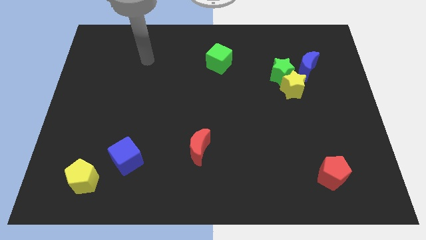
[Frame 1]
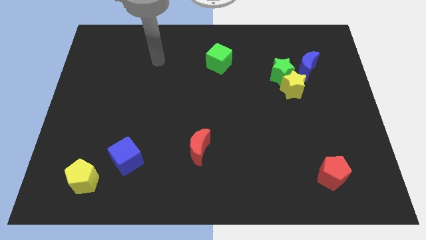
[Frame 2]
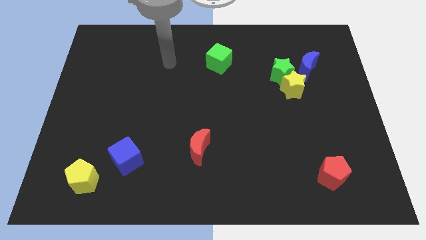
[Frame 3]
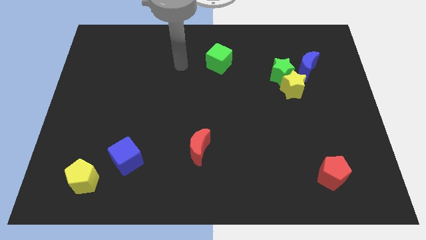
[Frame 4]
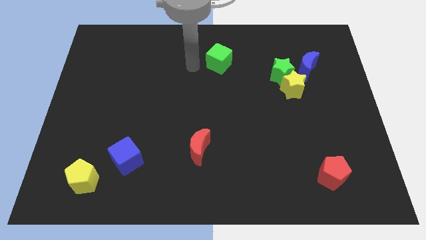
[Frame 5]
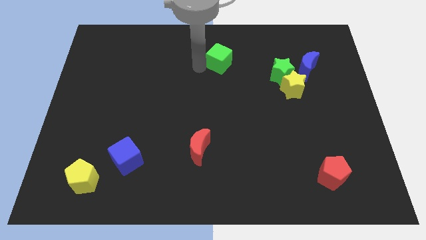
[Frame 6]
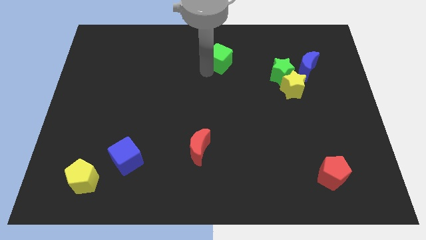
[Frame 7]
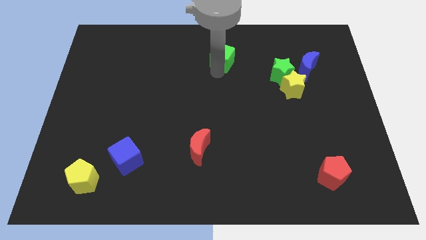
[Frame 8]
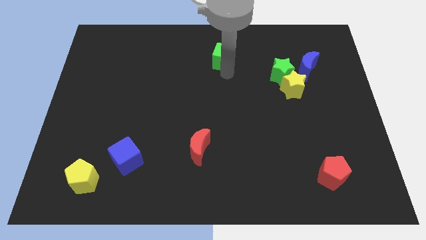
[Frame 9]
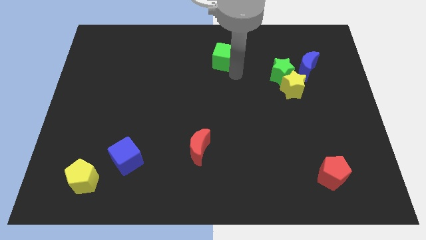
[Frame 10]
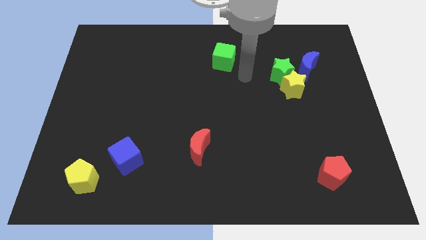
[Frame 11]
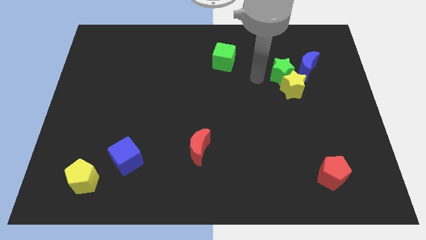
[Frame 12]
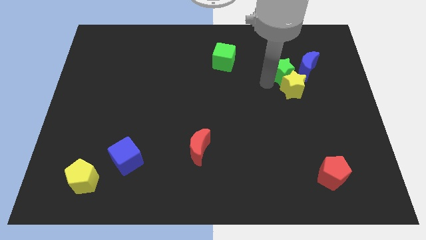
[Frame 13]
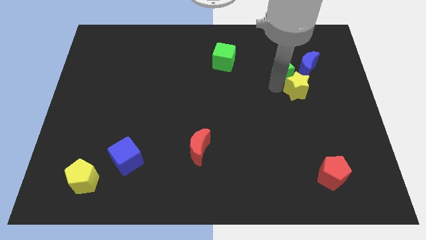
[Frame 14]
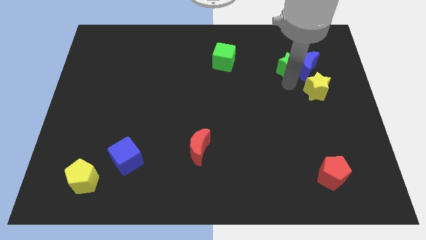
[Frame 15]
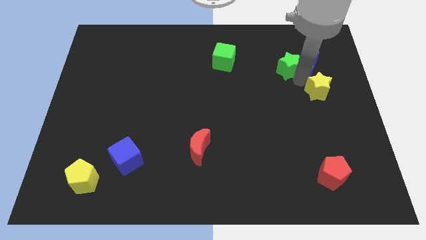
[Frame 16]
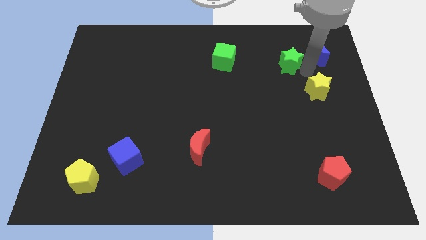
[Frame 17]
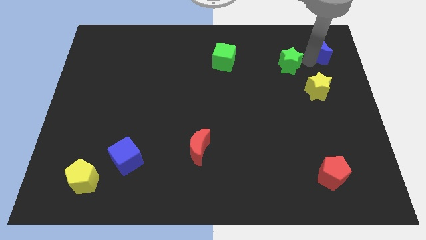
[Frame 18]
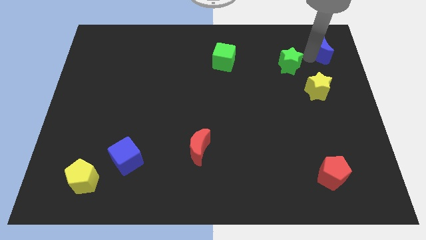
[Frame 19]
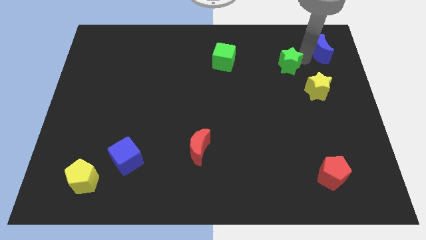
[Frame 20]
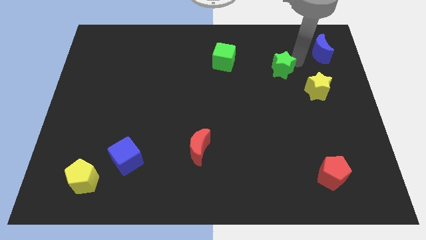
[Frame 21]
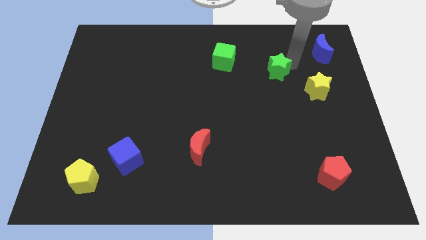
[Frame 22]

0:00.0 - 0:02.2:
move the green star away from the yellow star and blue moon

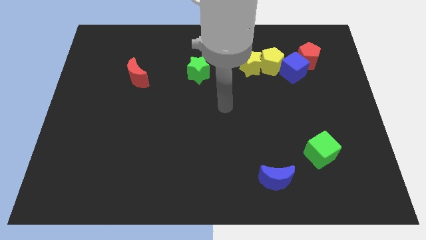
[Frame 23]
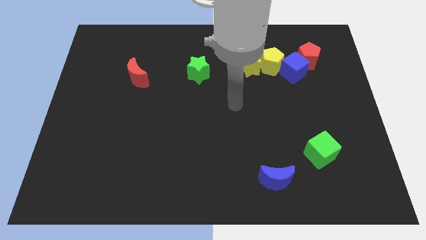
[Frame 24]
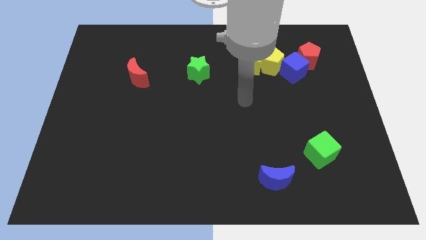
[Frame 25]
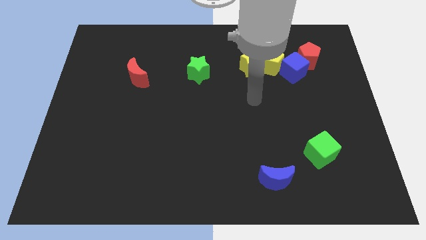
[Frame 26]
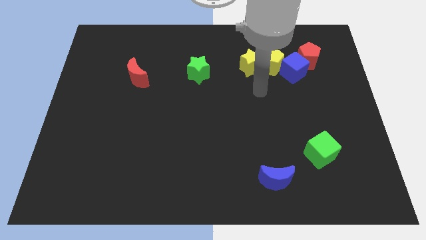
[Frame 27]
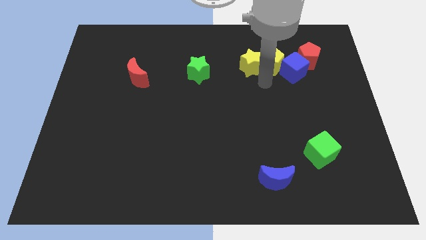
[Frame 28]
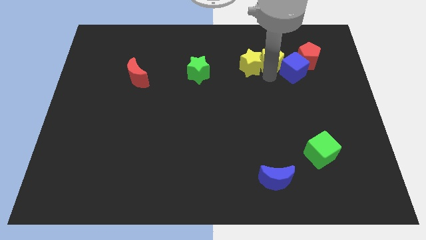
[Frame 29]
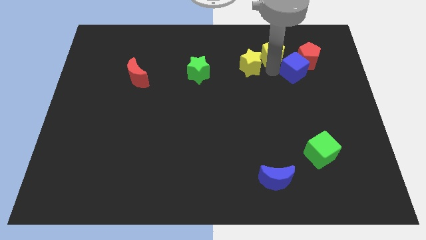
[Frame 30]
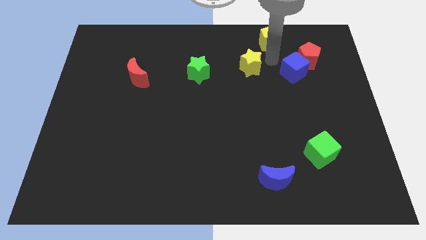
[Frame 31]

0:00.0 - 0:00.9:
separate the yellow star from the yellow pentagon

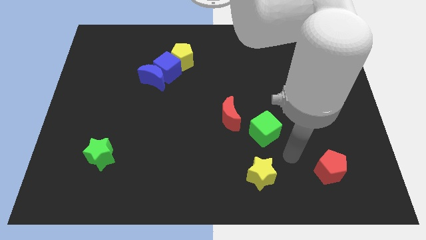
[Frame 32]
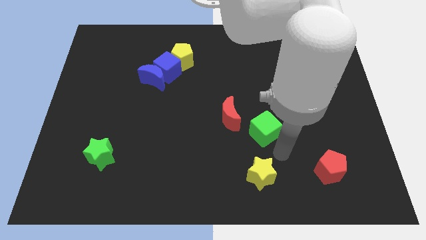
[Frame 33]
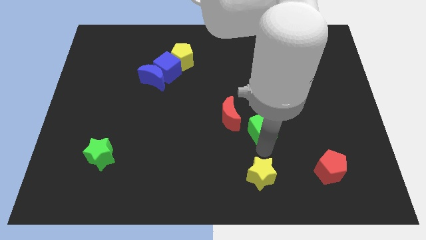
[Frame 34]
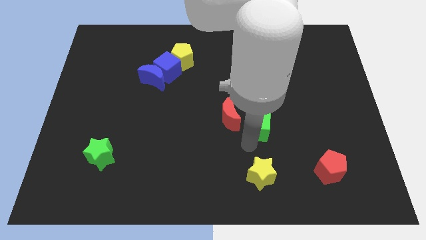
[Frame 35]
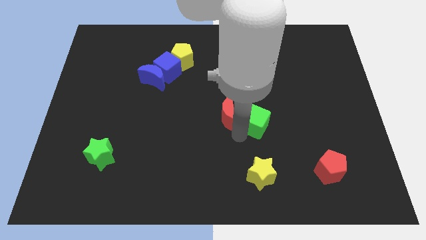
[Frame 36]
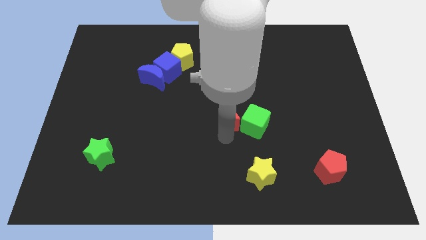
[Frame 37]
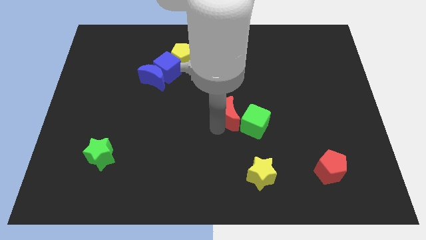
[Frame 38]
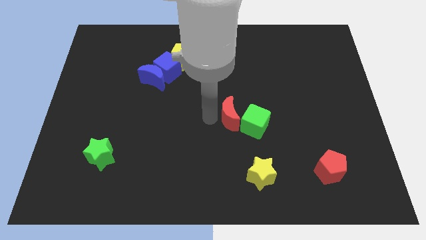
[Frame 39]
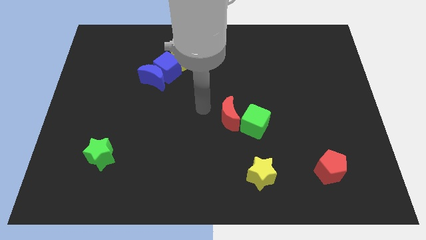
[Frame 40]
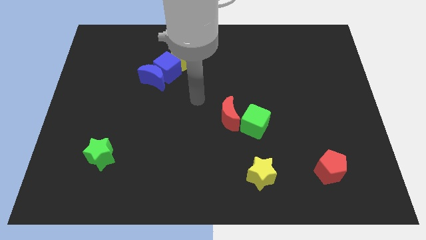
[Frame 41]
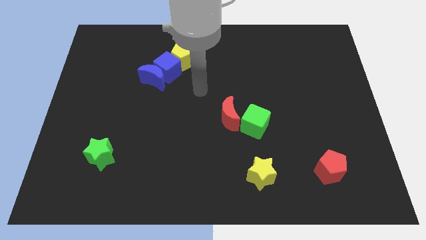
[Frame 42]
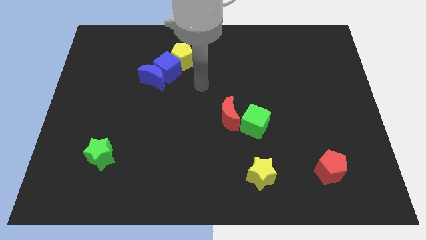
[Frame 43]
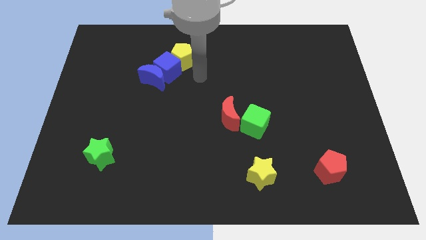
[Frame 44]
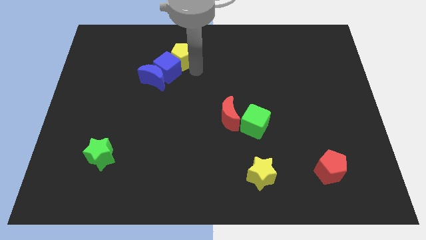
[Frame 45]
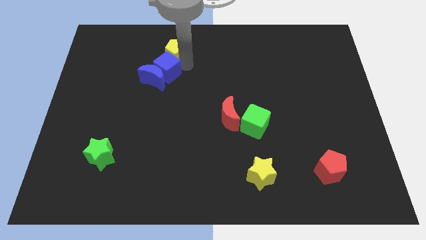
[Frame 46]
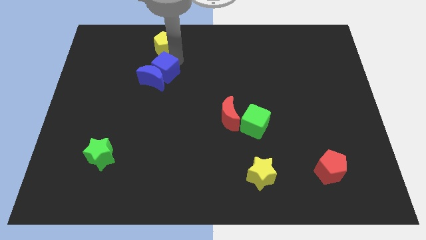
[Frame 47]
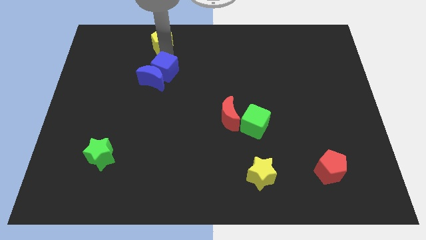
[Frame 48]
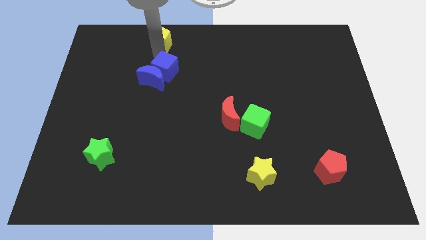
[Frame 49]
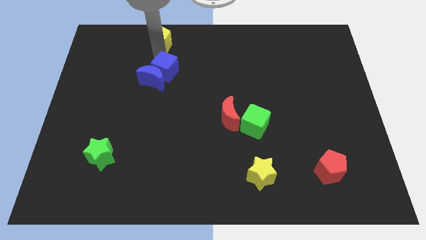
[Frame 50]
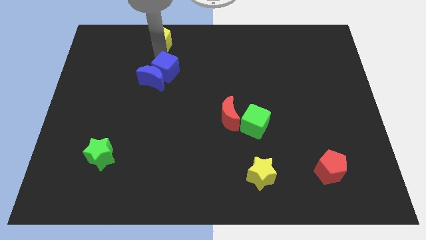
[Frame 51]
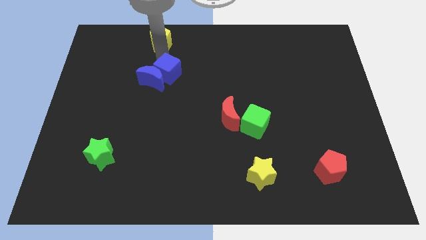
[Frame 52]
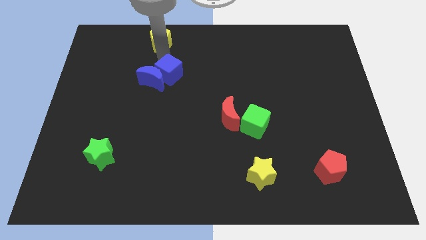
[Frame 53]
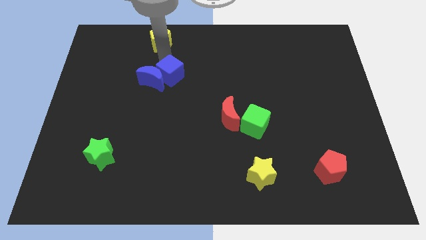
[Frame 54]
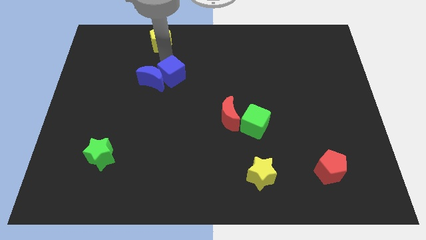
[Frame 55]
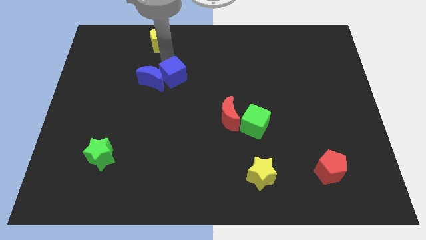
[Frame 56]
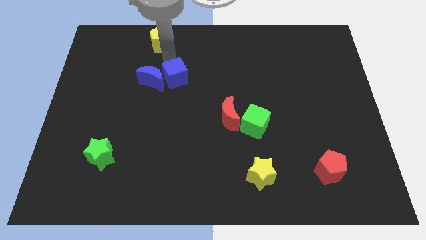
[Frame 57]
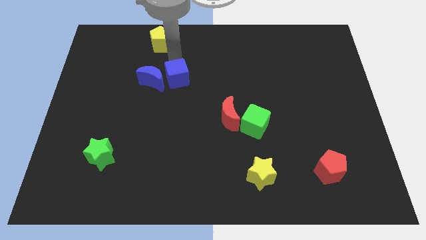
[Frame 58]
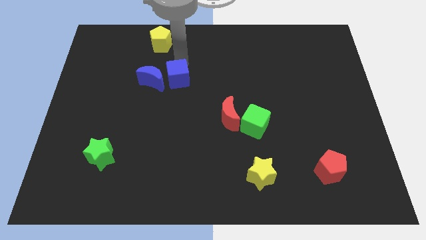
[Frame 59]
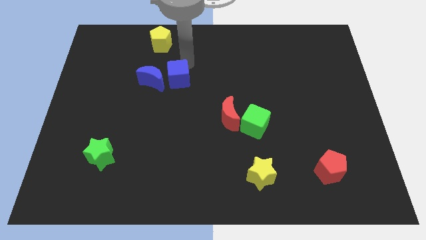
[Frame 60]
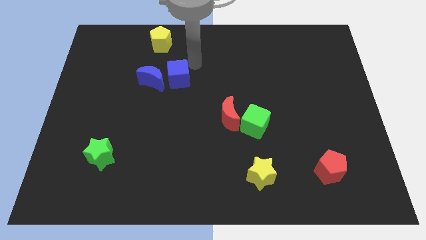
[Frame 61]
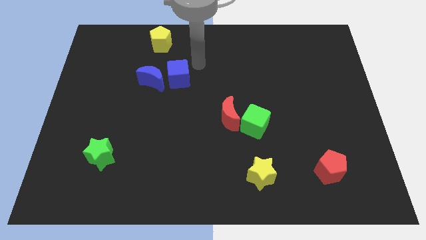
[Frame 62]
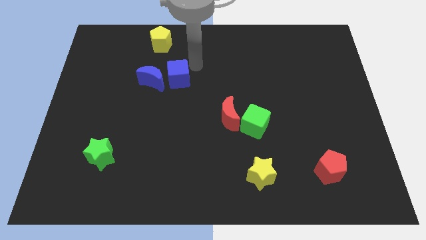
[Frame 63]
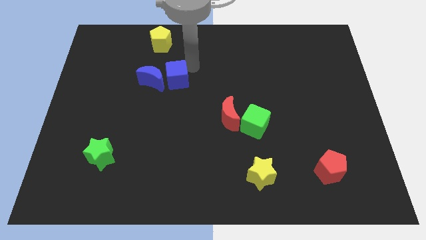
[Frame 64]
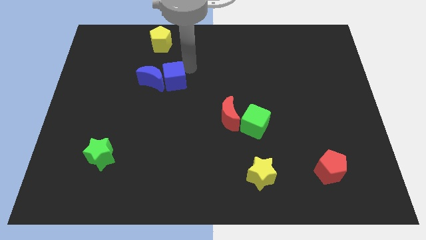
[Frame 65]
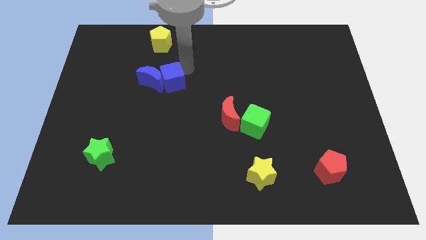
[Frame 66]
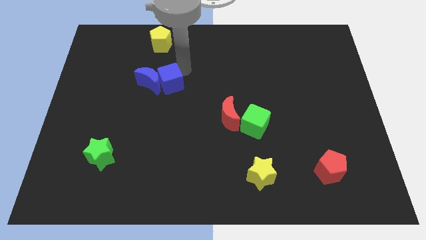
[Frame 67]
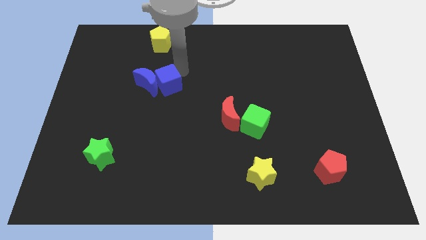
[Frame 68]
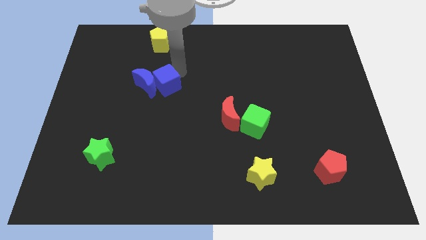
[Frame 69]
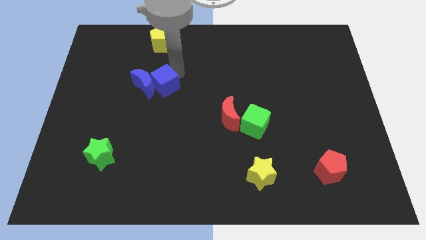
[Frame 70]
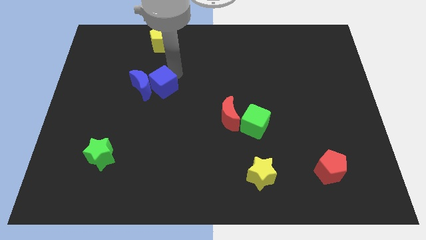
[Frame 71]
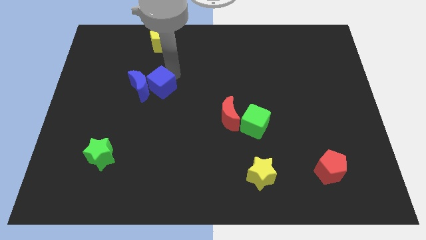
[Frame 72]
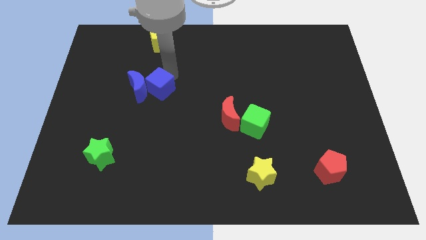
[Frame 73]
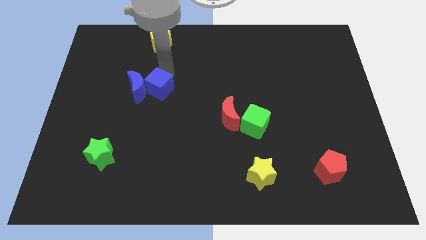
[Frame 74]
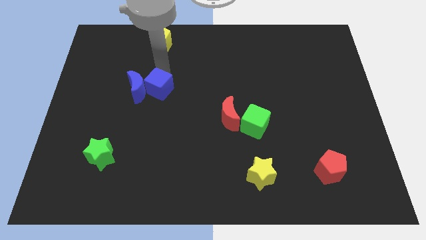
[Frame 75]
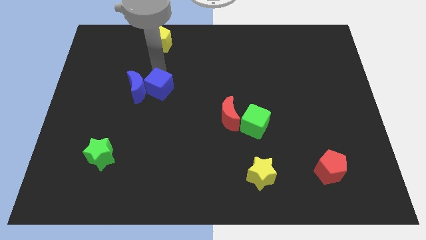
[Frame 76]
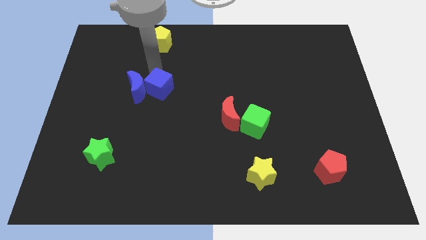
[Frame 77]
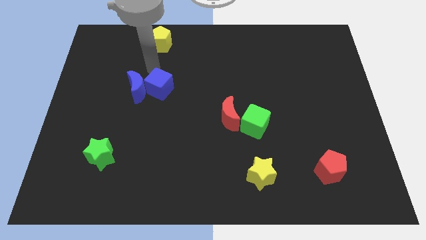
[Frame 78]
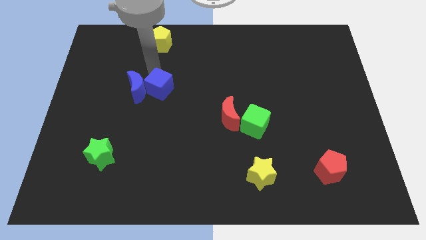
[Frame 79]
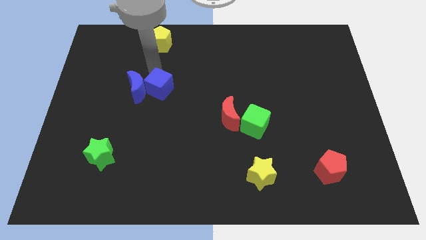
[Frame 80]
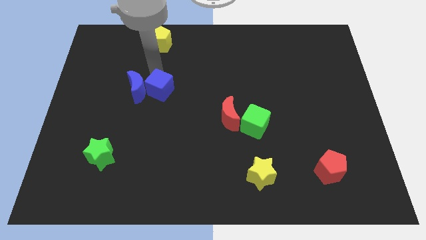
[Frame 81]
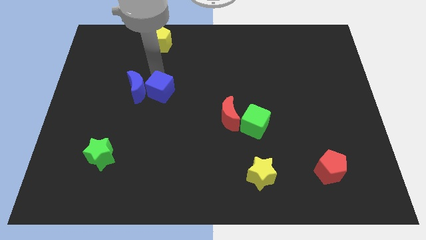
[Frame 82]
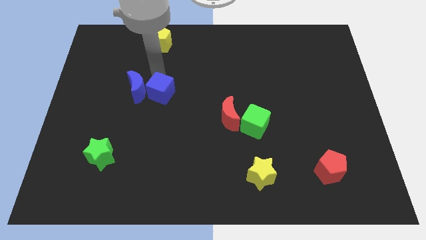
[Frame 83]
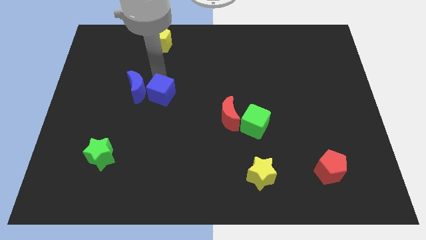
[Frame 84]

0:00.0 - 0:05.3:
pull the blue cube apart from the blue moon and yellow pentagon

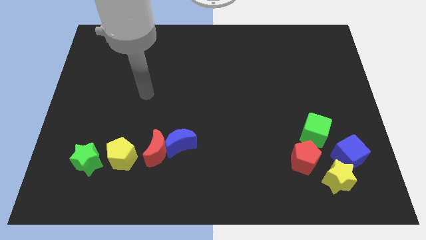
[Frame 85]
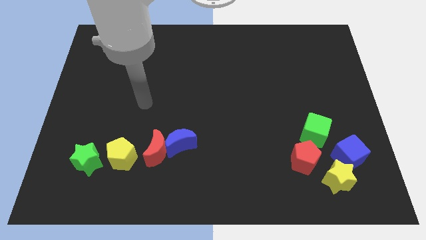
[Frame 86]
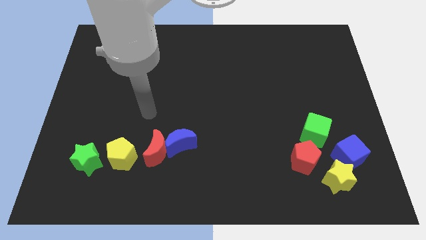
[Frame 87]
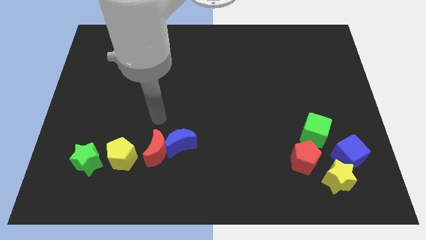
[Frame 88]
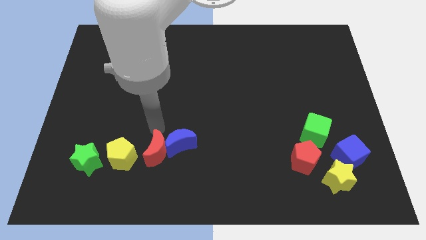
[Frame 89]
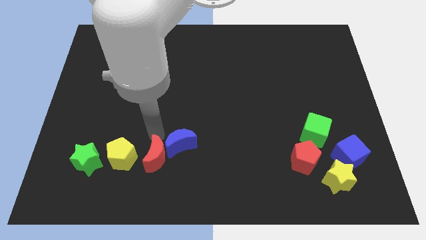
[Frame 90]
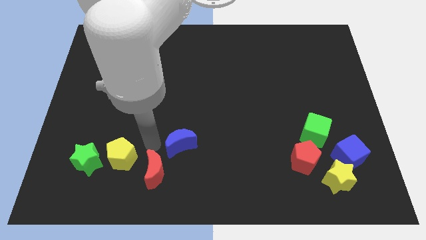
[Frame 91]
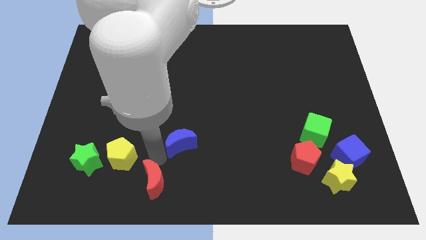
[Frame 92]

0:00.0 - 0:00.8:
move the blue moon away from the red moon

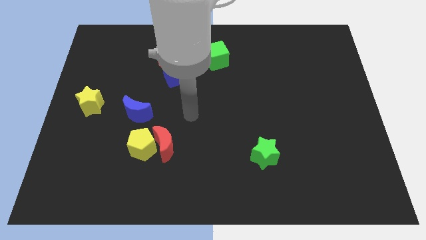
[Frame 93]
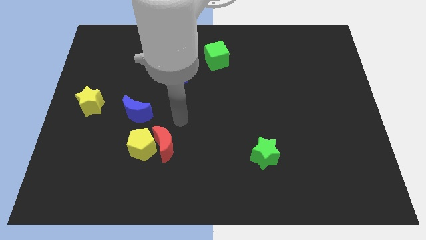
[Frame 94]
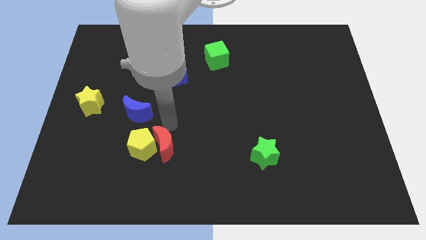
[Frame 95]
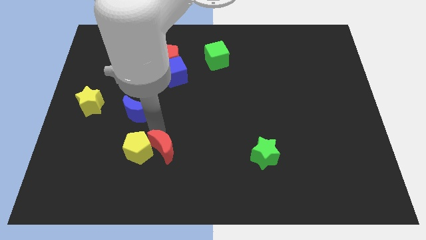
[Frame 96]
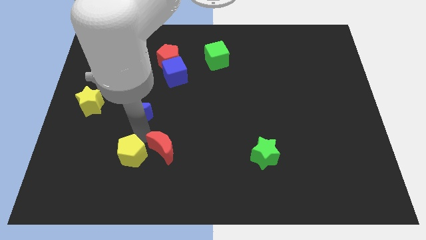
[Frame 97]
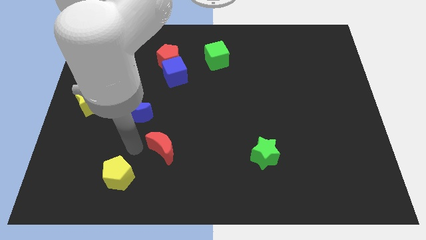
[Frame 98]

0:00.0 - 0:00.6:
pull the red moon apart from the yellow pentagon
